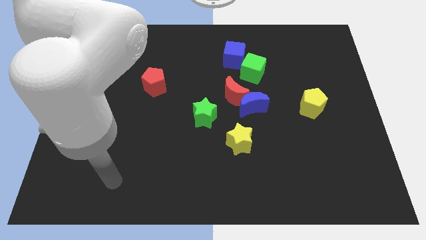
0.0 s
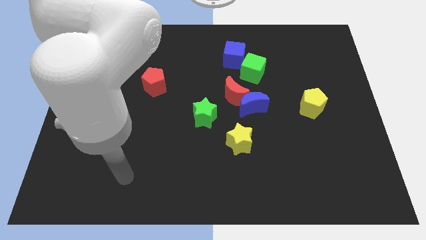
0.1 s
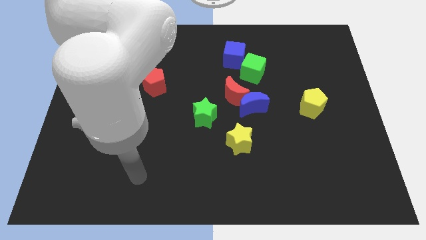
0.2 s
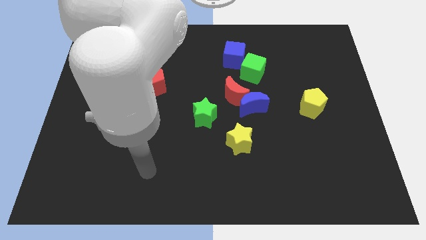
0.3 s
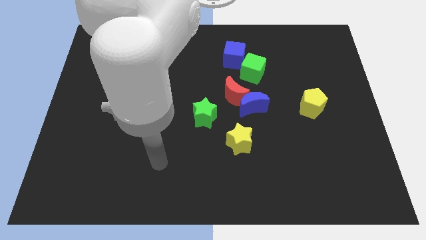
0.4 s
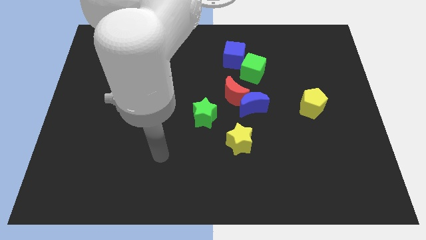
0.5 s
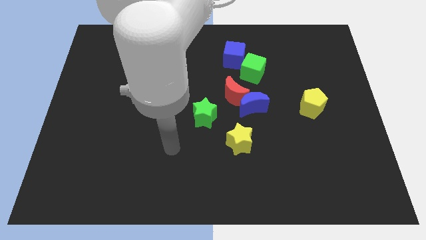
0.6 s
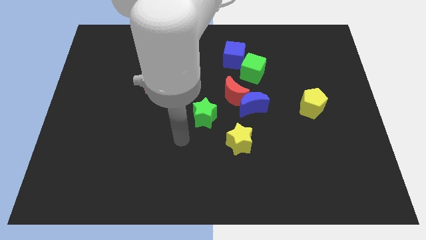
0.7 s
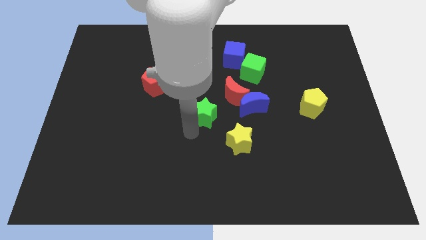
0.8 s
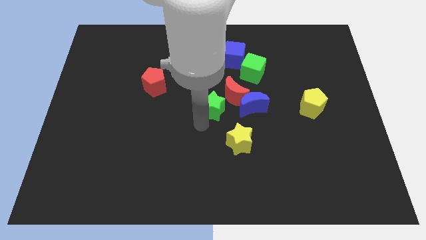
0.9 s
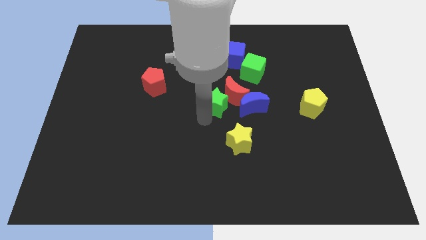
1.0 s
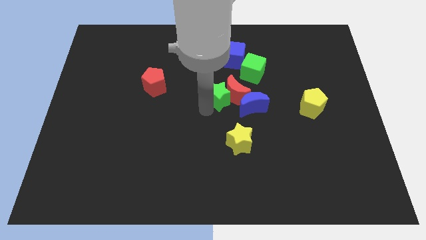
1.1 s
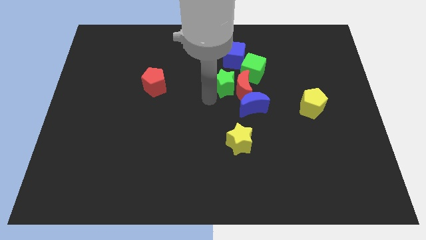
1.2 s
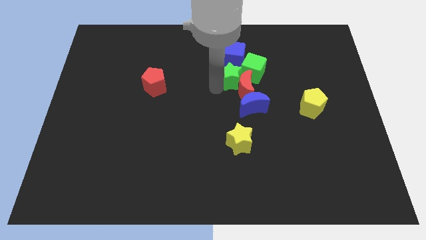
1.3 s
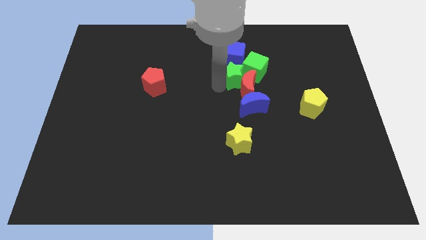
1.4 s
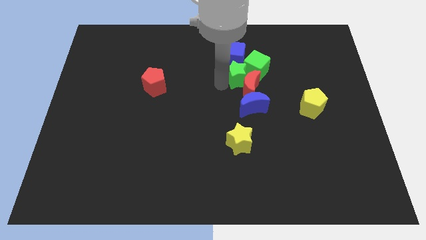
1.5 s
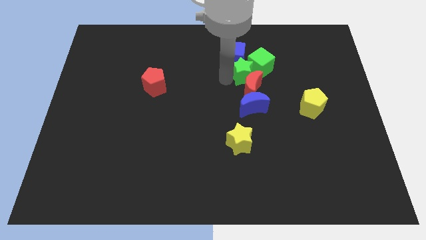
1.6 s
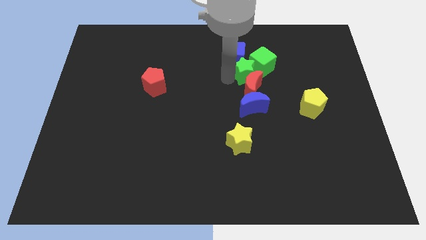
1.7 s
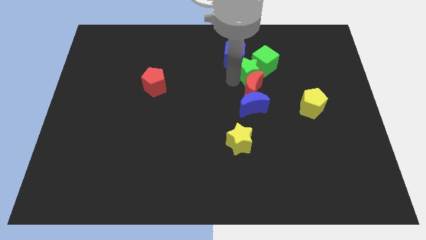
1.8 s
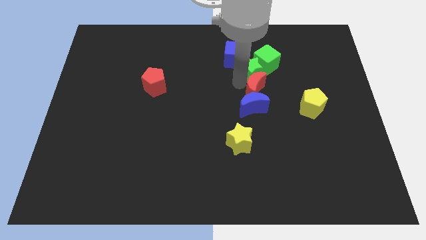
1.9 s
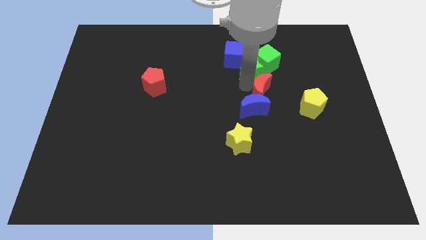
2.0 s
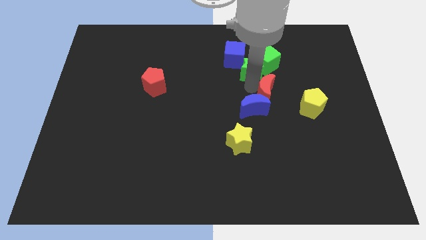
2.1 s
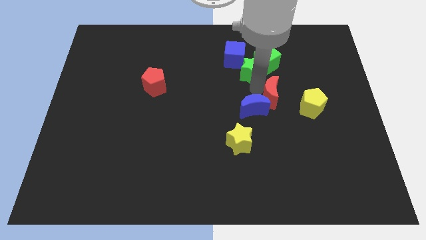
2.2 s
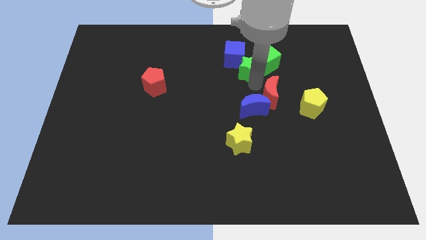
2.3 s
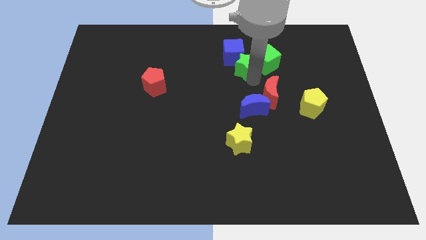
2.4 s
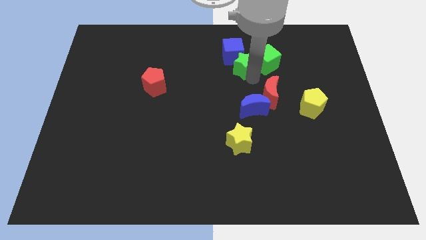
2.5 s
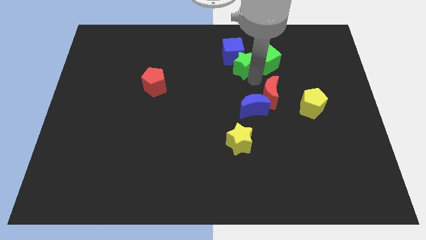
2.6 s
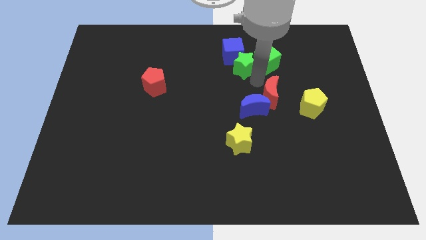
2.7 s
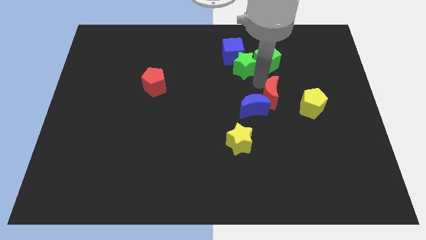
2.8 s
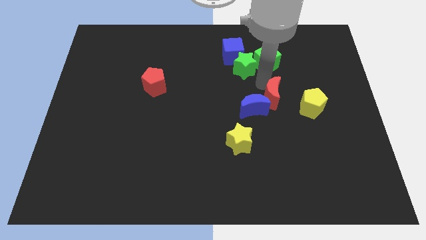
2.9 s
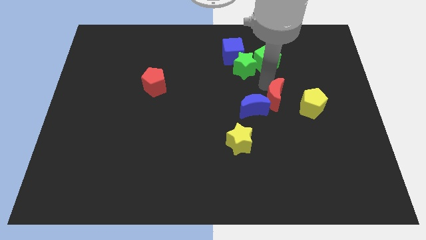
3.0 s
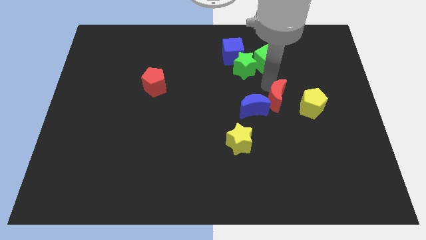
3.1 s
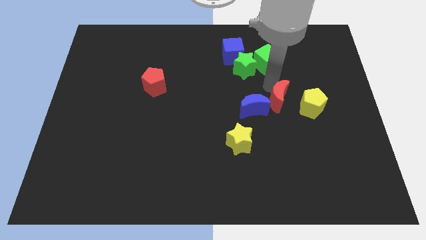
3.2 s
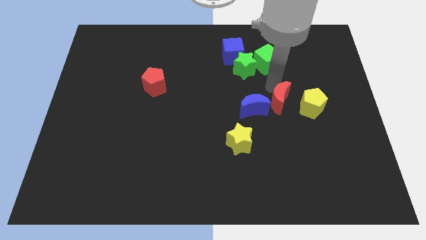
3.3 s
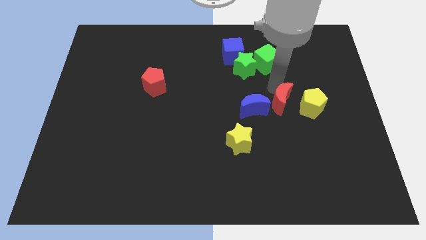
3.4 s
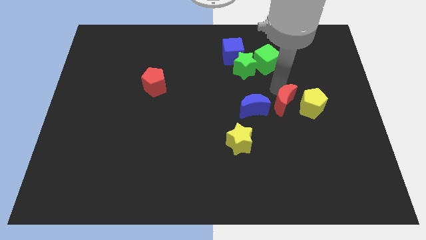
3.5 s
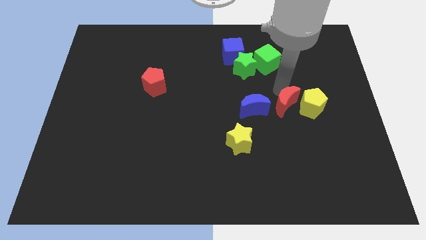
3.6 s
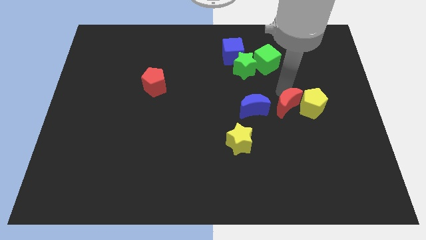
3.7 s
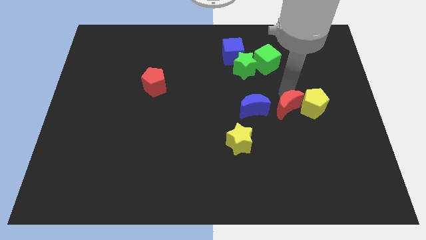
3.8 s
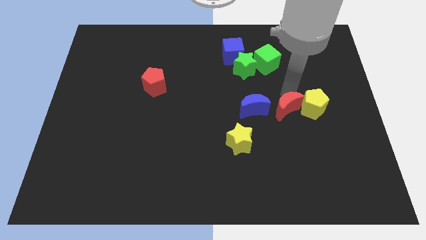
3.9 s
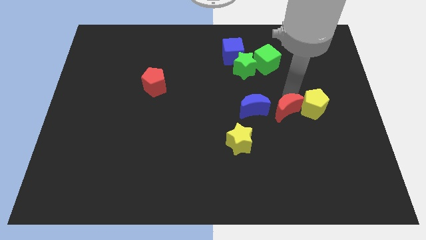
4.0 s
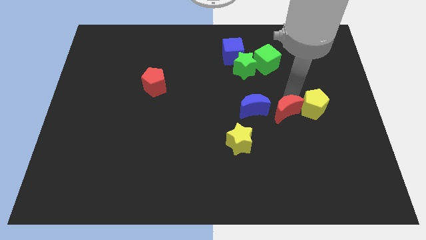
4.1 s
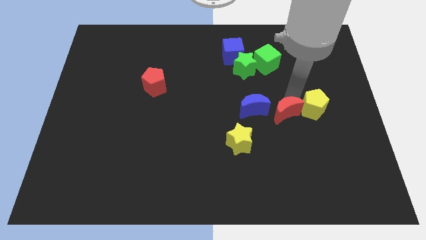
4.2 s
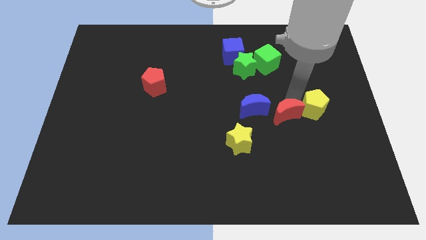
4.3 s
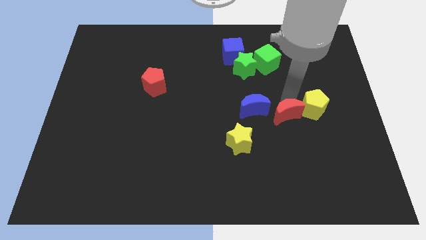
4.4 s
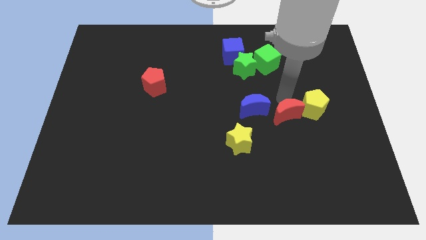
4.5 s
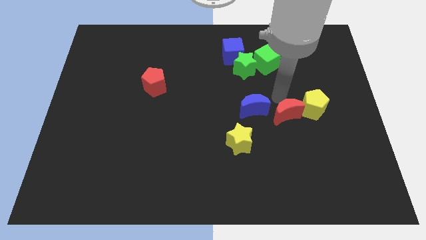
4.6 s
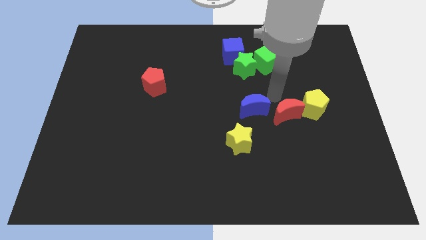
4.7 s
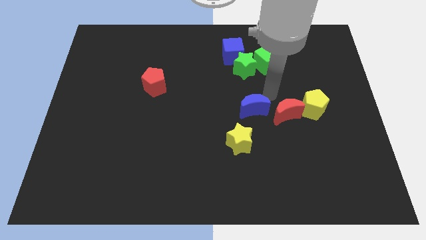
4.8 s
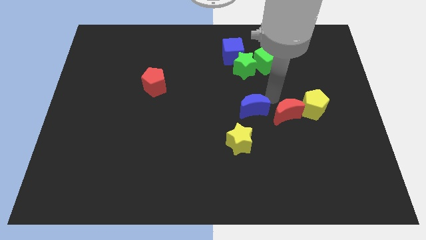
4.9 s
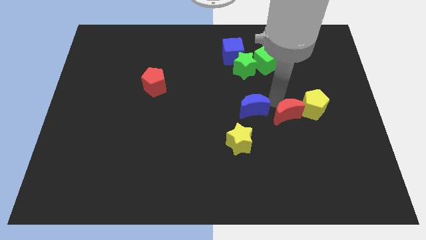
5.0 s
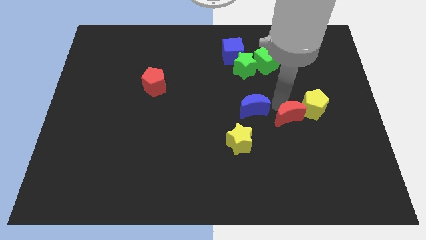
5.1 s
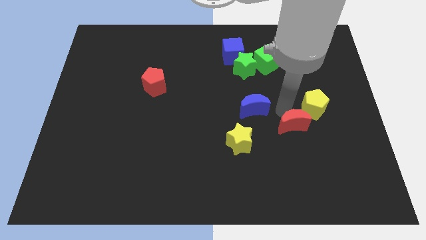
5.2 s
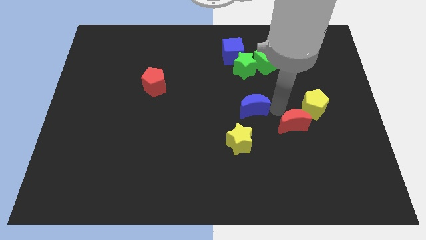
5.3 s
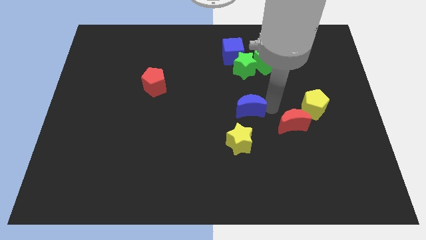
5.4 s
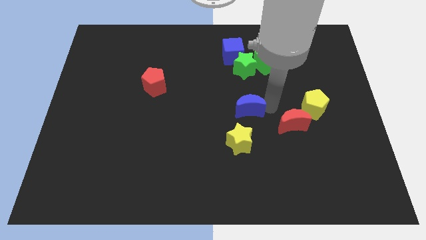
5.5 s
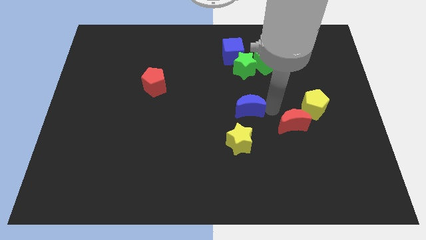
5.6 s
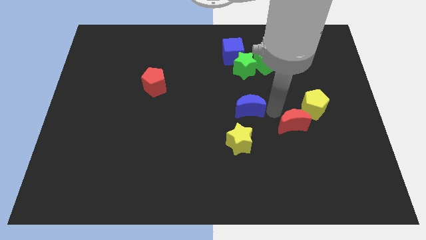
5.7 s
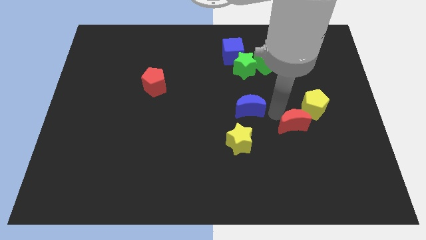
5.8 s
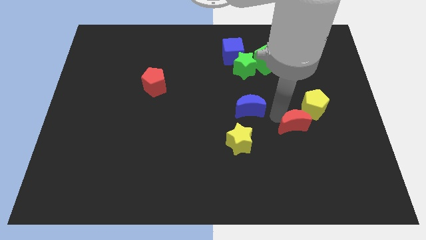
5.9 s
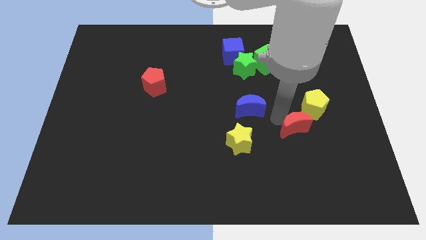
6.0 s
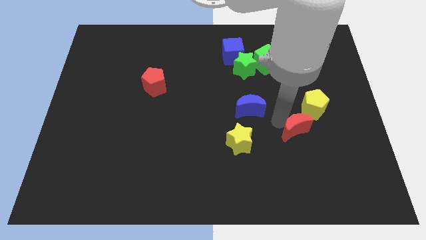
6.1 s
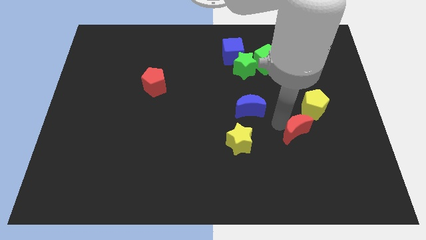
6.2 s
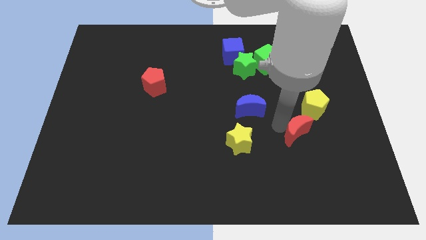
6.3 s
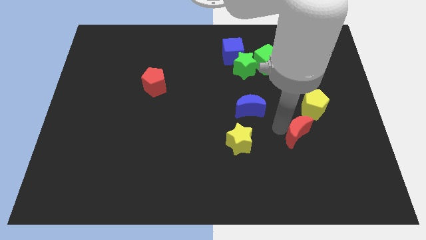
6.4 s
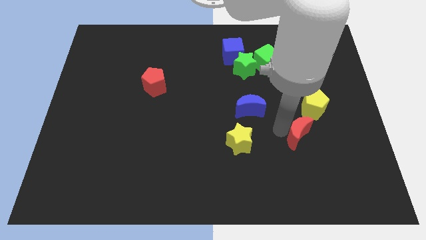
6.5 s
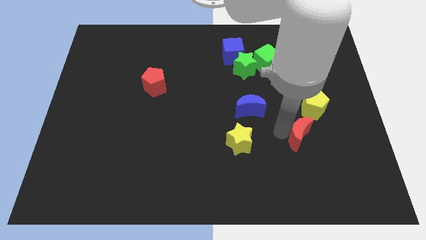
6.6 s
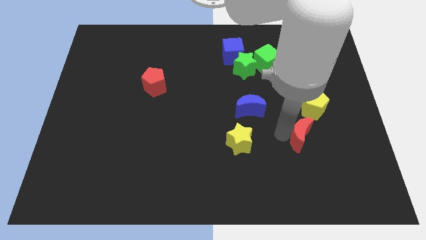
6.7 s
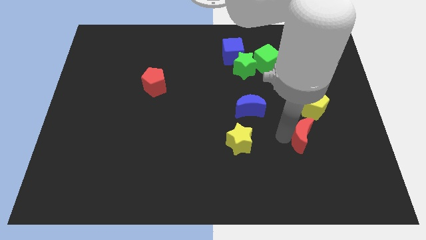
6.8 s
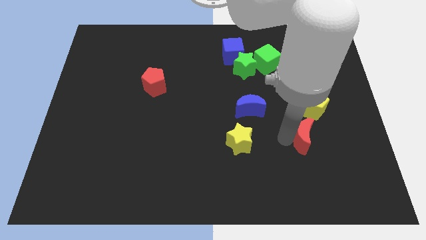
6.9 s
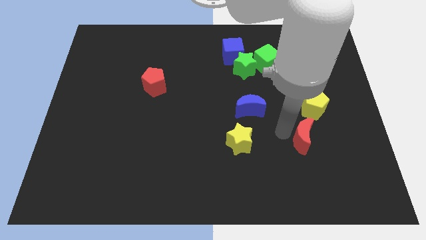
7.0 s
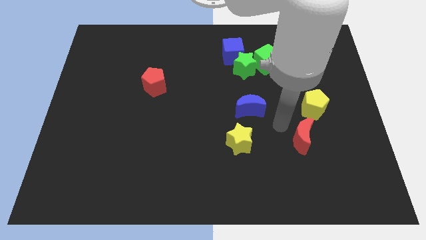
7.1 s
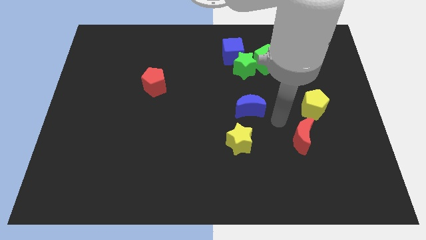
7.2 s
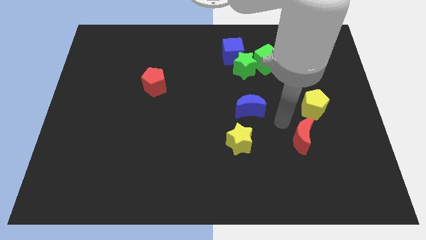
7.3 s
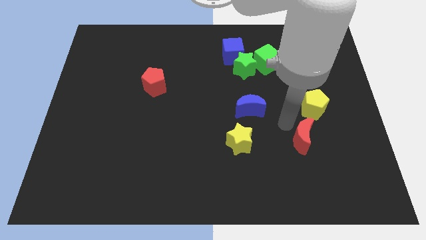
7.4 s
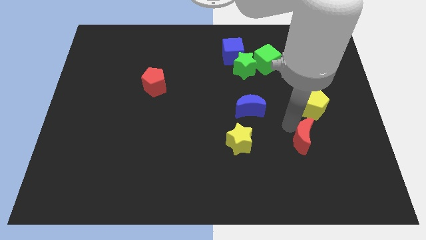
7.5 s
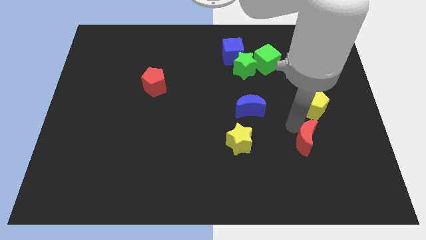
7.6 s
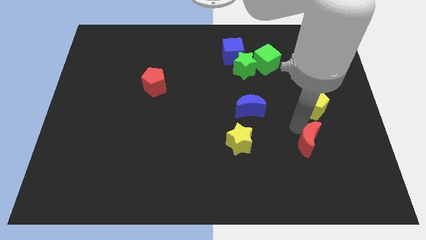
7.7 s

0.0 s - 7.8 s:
push the red moon downwards and right

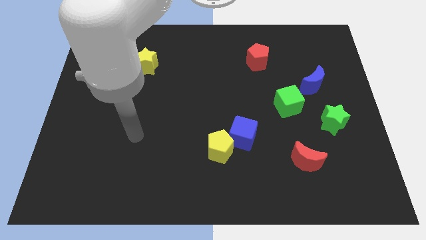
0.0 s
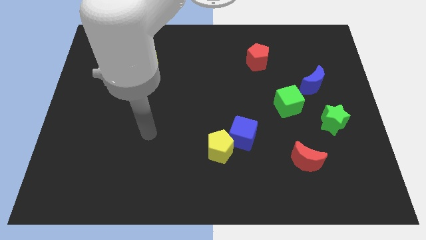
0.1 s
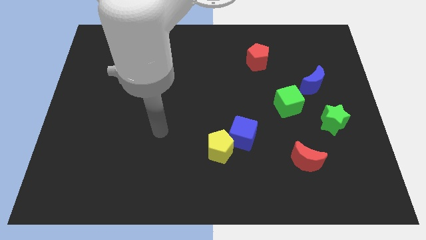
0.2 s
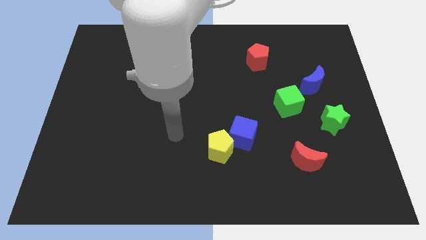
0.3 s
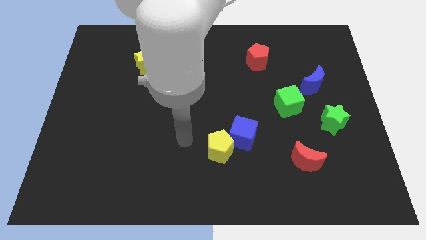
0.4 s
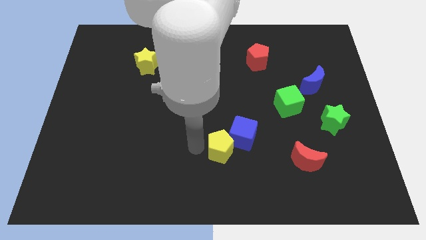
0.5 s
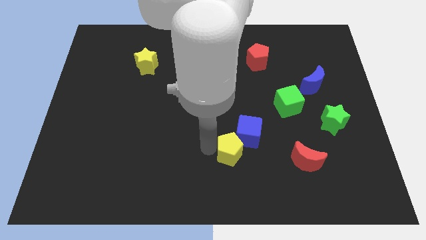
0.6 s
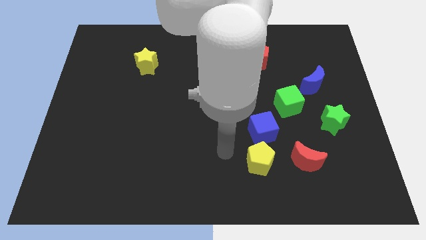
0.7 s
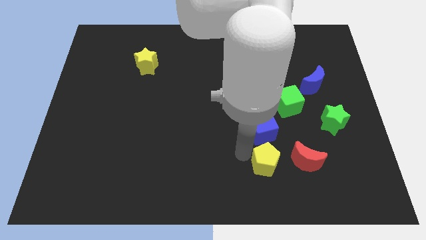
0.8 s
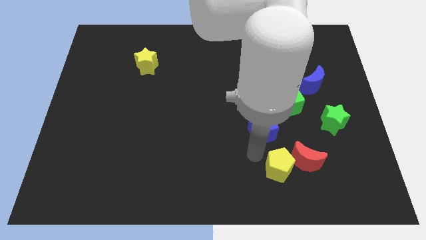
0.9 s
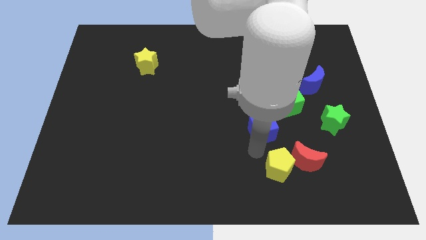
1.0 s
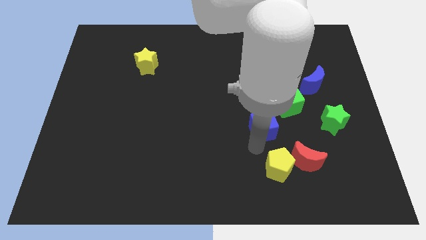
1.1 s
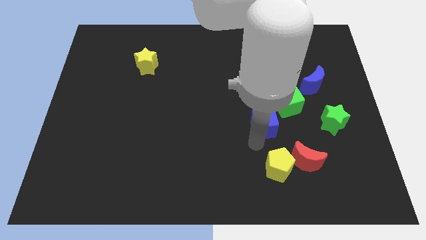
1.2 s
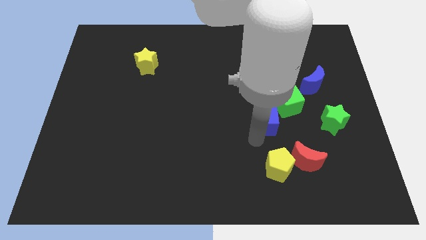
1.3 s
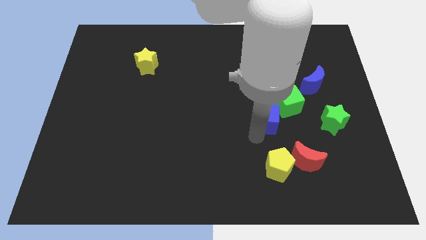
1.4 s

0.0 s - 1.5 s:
slide the blue cube up and then to the right a bit
